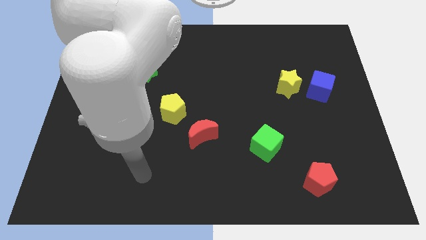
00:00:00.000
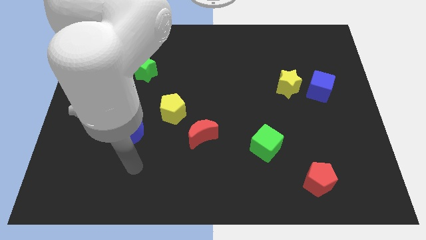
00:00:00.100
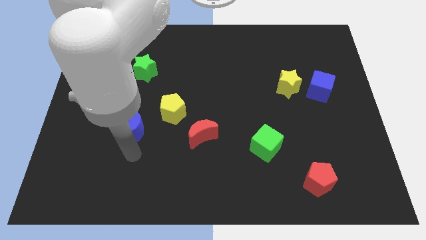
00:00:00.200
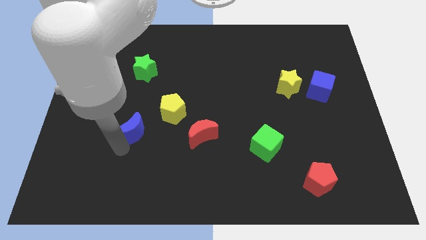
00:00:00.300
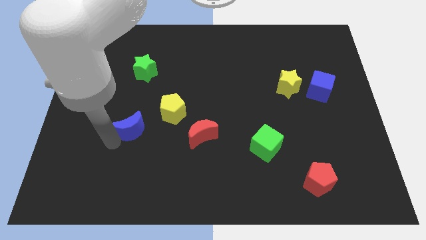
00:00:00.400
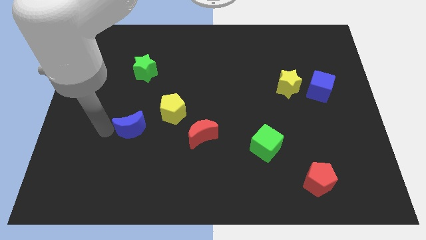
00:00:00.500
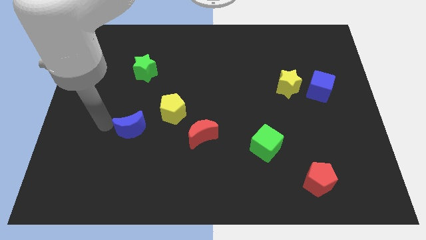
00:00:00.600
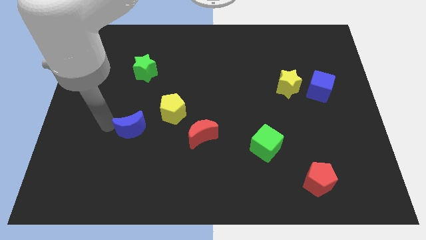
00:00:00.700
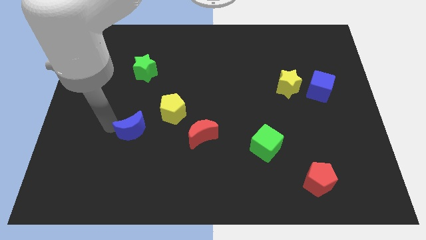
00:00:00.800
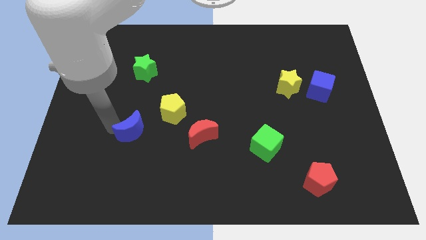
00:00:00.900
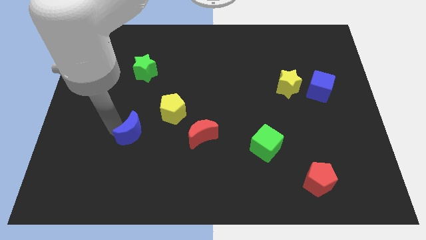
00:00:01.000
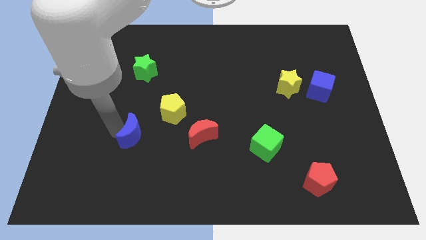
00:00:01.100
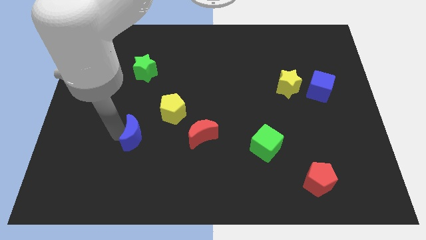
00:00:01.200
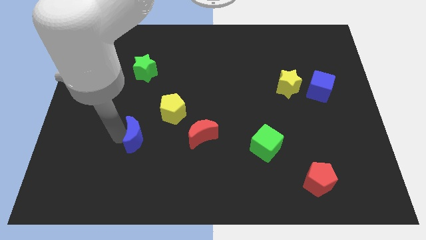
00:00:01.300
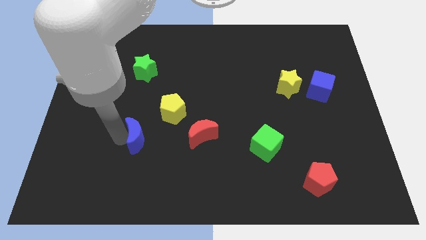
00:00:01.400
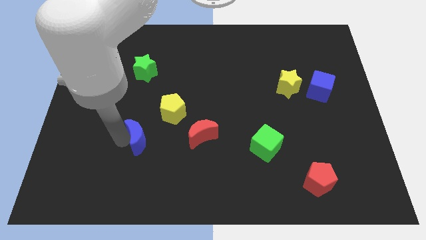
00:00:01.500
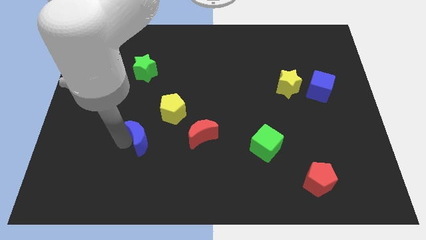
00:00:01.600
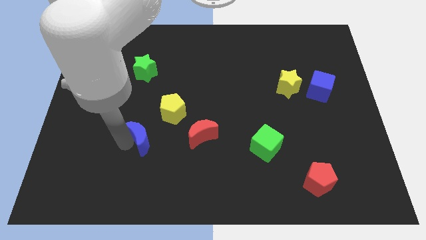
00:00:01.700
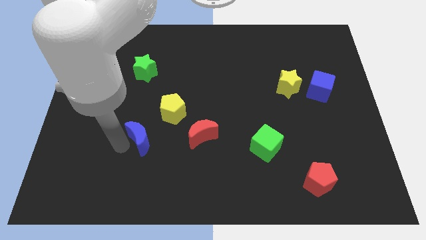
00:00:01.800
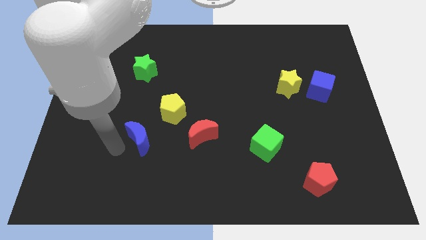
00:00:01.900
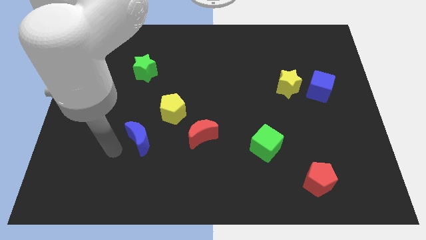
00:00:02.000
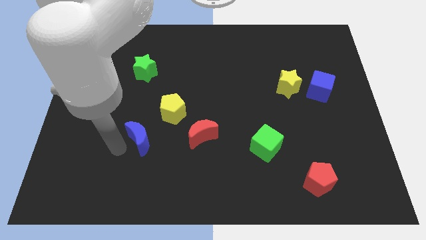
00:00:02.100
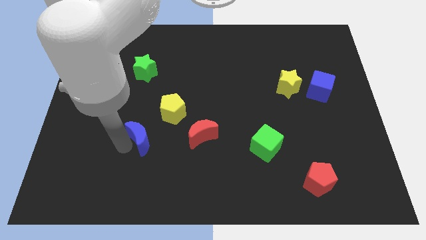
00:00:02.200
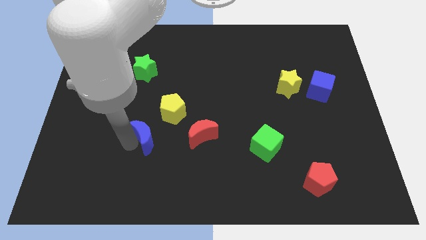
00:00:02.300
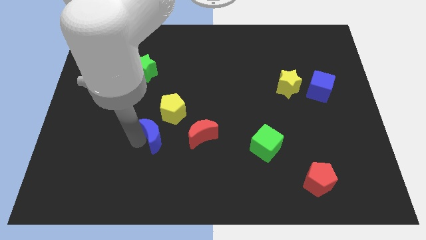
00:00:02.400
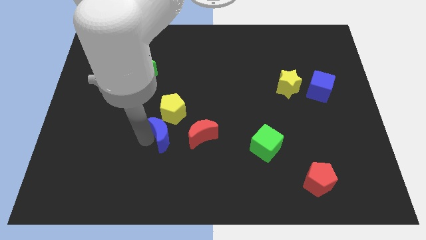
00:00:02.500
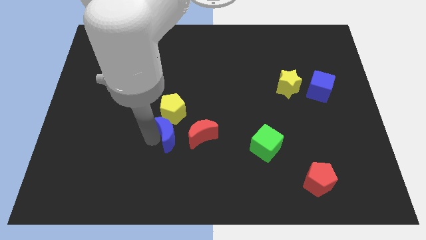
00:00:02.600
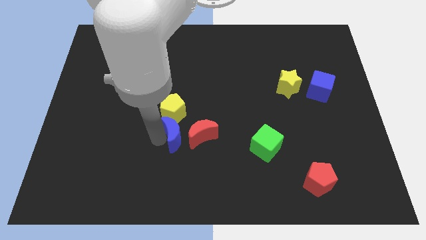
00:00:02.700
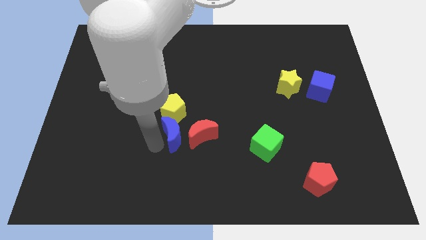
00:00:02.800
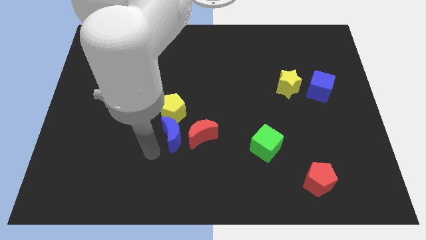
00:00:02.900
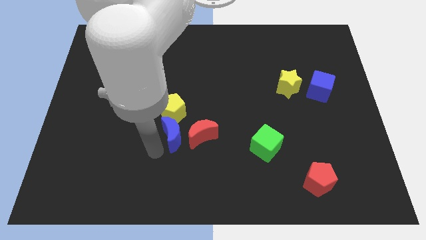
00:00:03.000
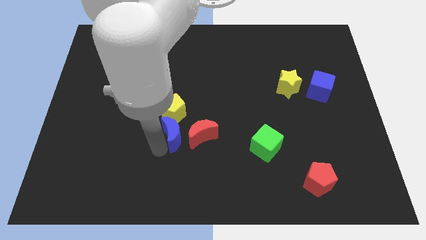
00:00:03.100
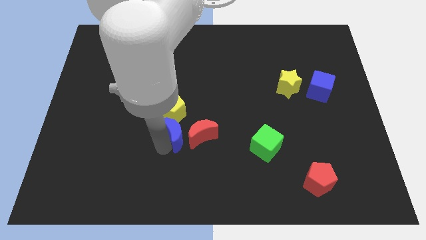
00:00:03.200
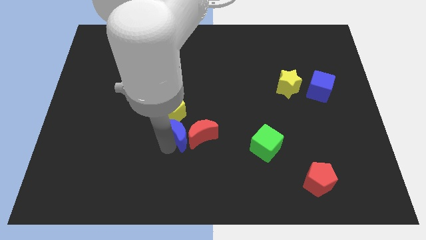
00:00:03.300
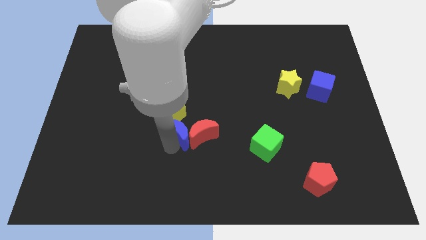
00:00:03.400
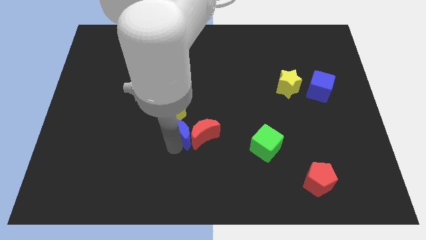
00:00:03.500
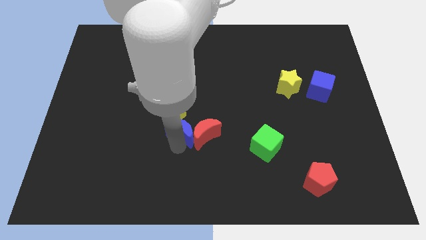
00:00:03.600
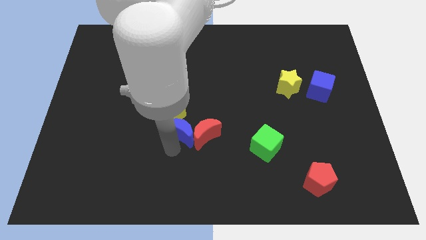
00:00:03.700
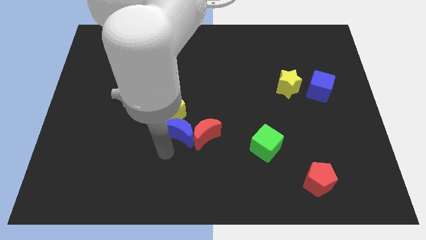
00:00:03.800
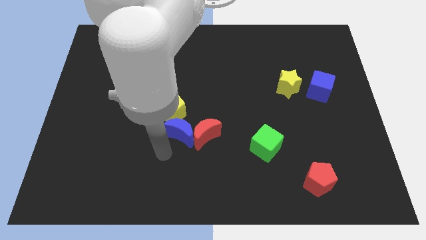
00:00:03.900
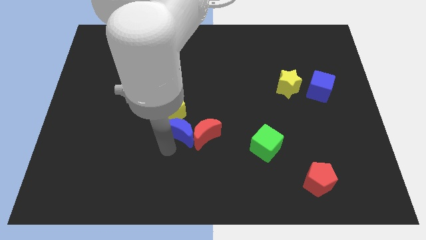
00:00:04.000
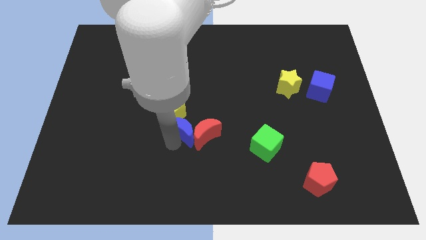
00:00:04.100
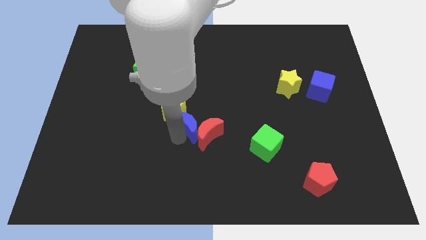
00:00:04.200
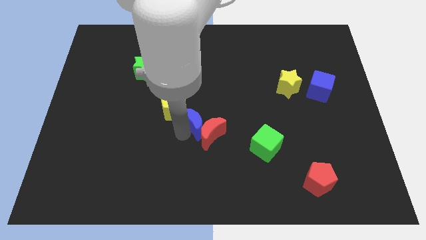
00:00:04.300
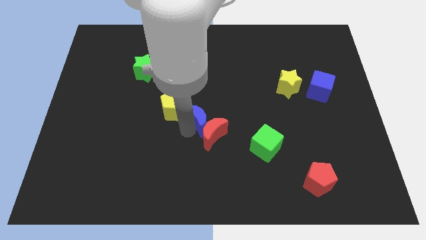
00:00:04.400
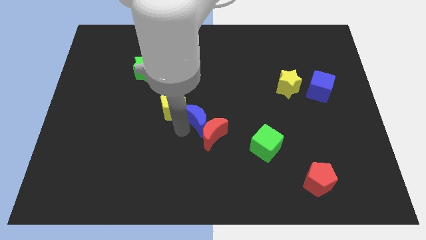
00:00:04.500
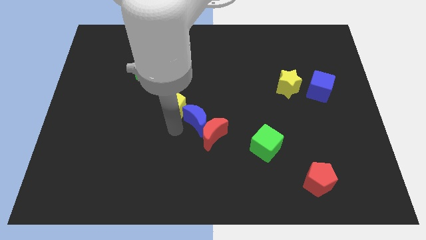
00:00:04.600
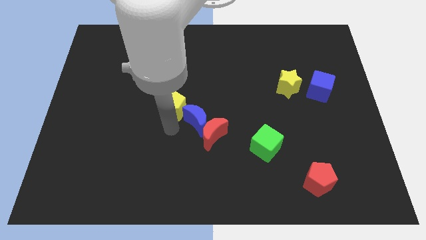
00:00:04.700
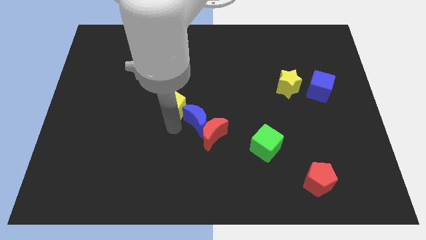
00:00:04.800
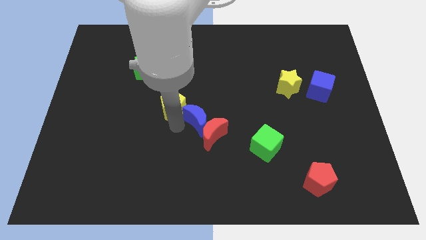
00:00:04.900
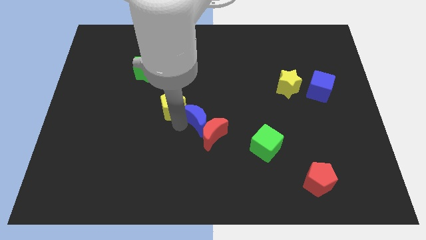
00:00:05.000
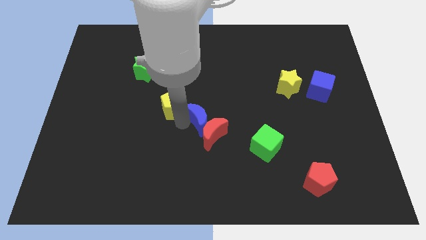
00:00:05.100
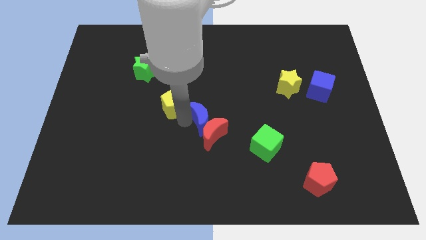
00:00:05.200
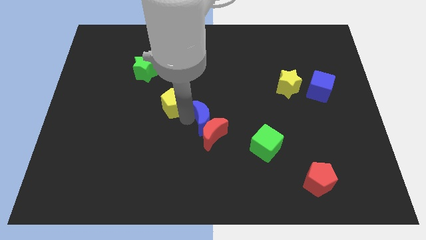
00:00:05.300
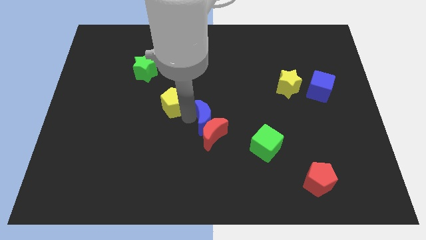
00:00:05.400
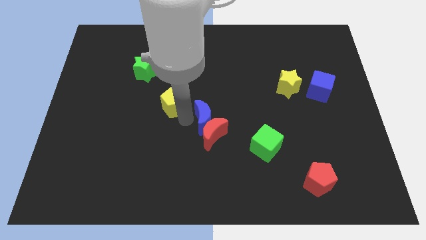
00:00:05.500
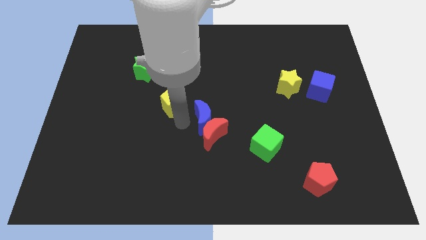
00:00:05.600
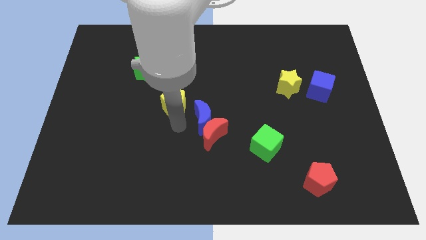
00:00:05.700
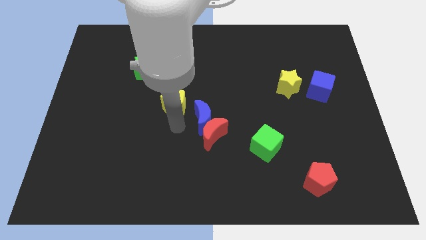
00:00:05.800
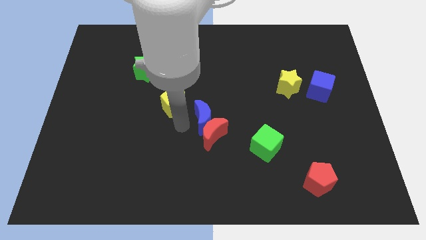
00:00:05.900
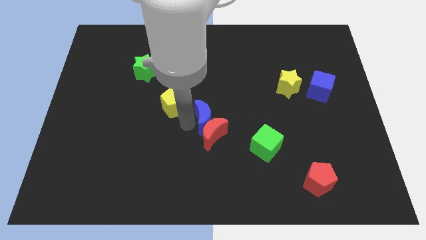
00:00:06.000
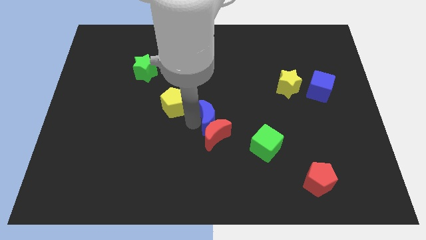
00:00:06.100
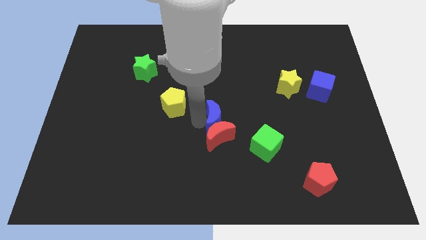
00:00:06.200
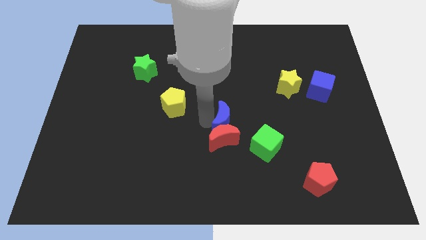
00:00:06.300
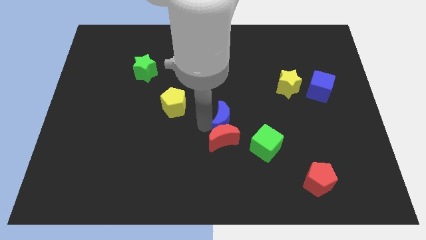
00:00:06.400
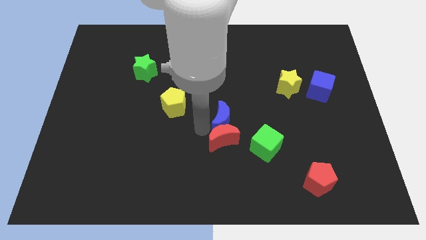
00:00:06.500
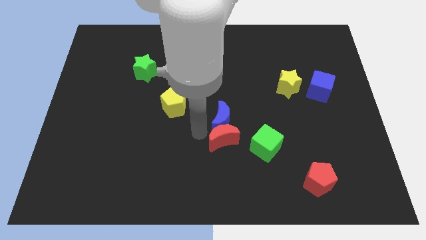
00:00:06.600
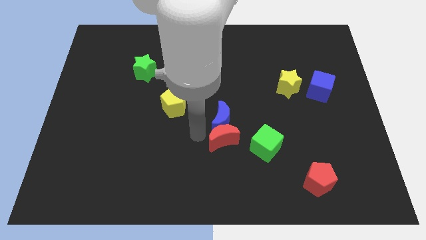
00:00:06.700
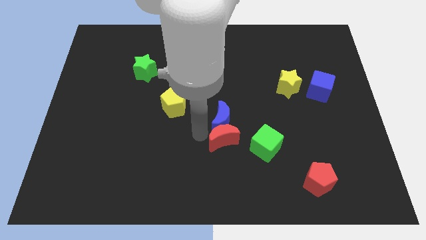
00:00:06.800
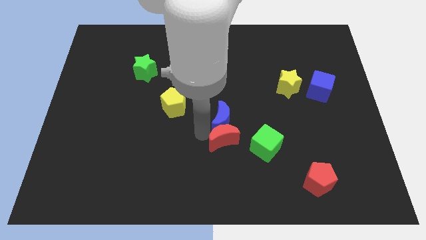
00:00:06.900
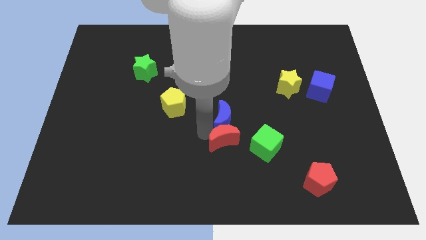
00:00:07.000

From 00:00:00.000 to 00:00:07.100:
push the blue moon right

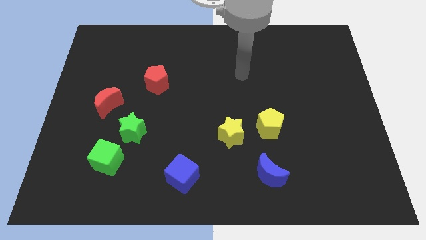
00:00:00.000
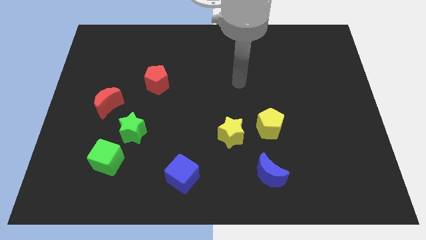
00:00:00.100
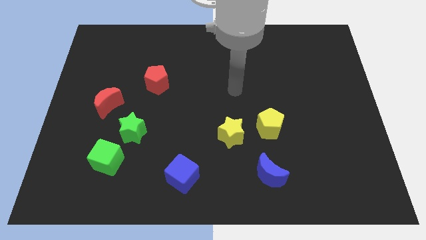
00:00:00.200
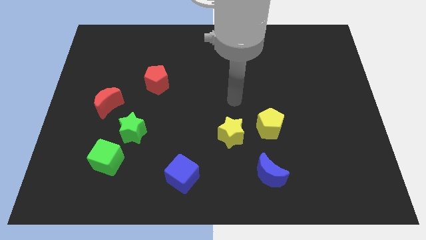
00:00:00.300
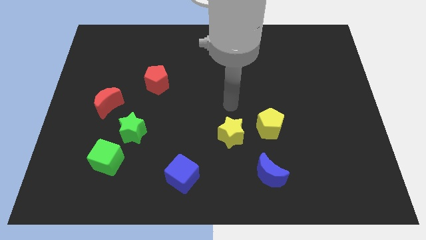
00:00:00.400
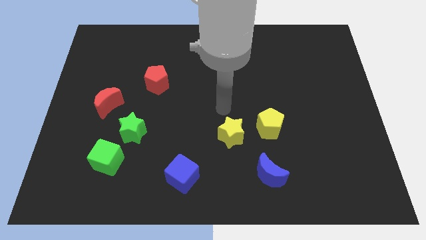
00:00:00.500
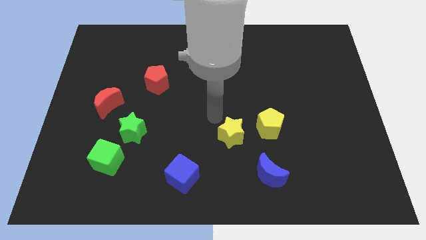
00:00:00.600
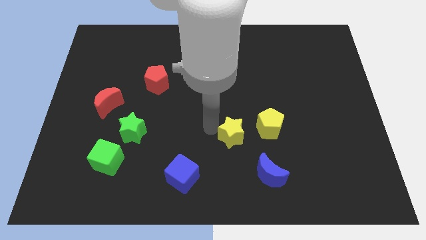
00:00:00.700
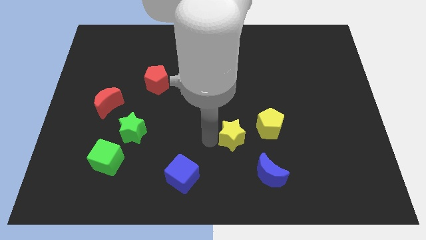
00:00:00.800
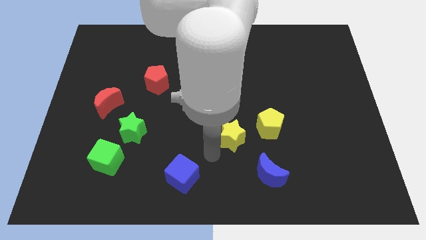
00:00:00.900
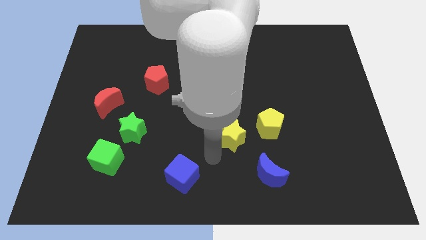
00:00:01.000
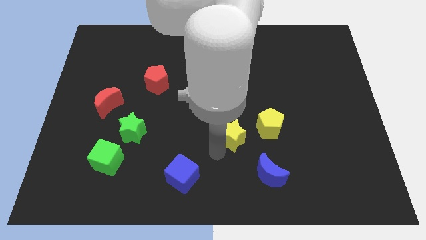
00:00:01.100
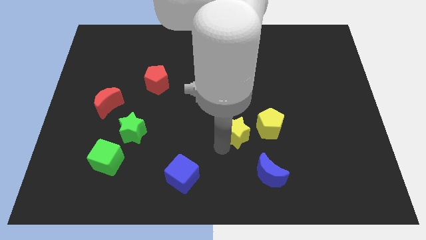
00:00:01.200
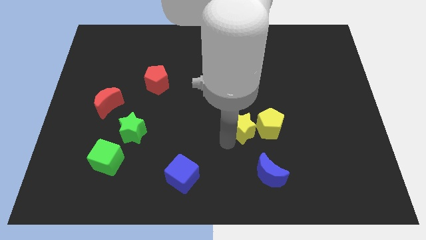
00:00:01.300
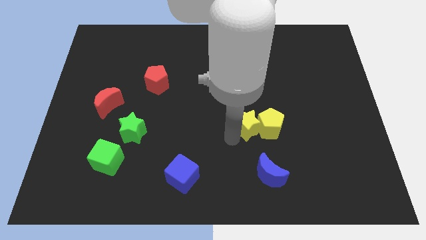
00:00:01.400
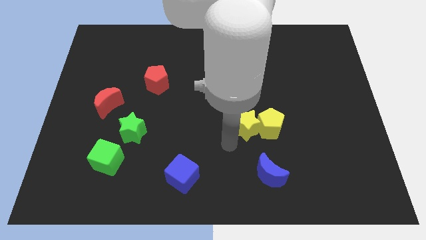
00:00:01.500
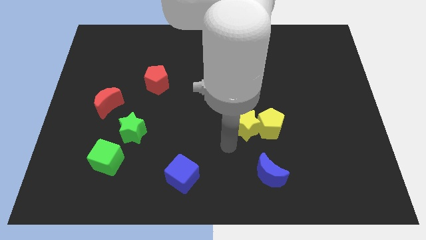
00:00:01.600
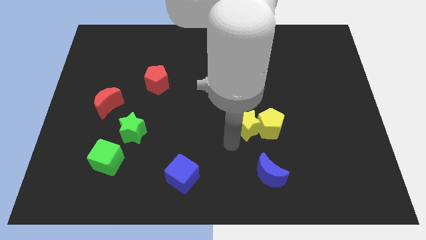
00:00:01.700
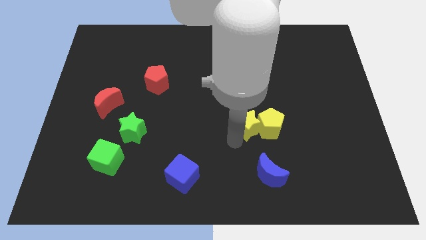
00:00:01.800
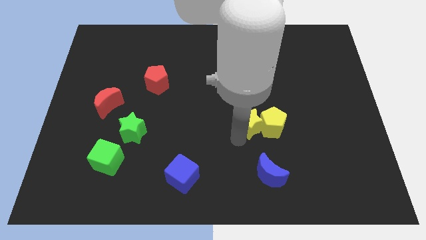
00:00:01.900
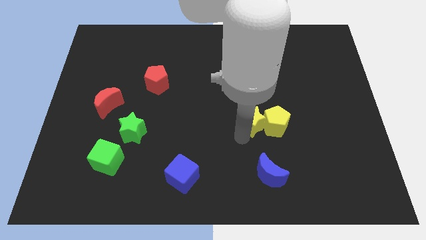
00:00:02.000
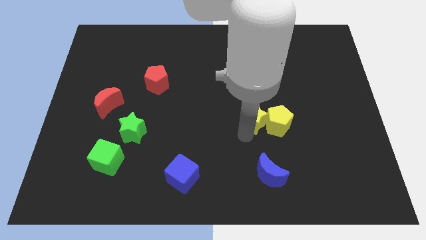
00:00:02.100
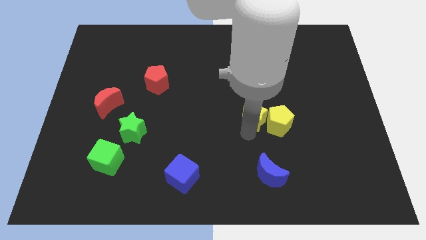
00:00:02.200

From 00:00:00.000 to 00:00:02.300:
slightly move the yellow star diagonally up and to the right
